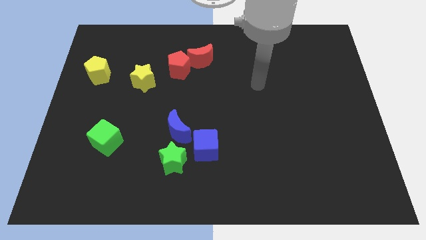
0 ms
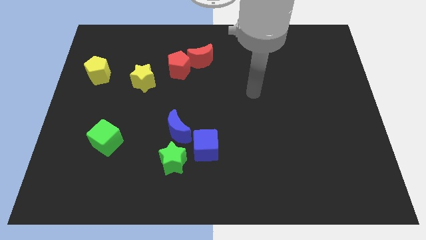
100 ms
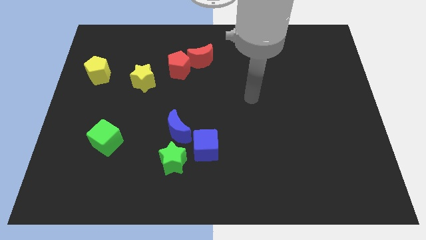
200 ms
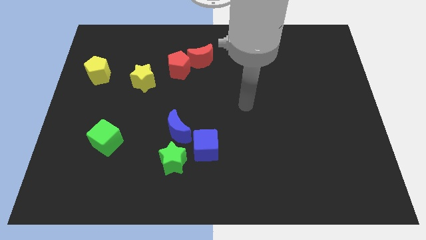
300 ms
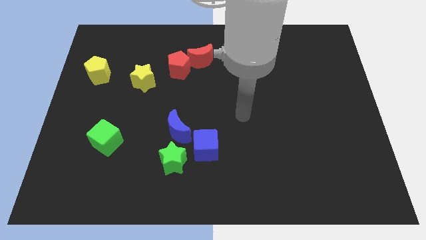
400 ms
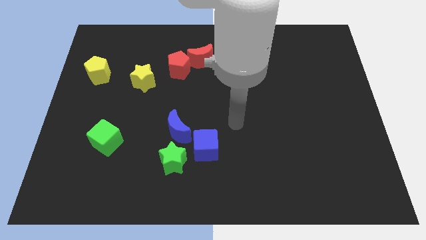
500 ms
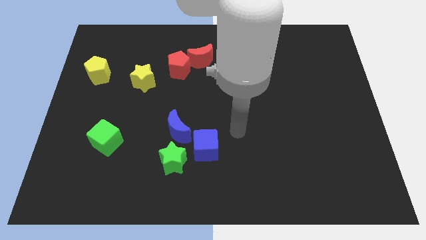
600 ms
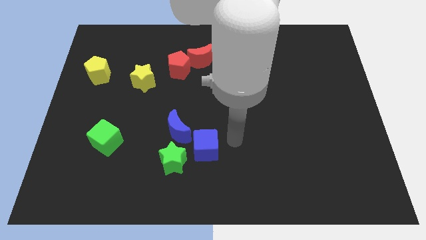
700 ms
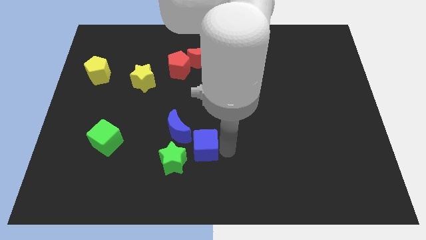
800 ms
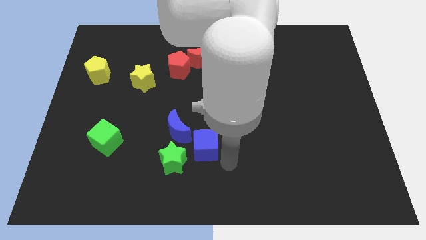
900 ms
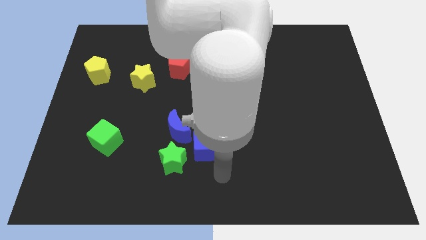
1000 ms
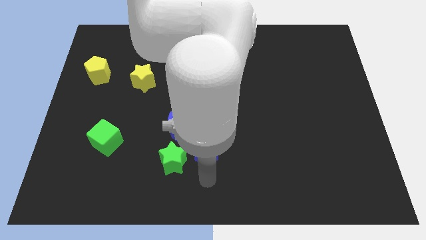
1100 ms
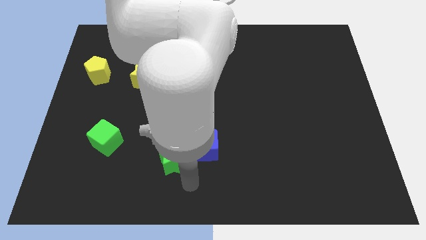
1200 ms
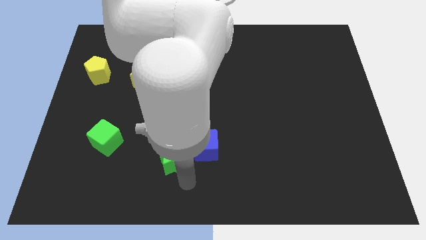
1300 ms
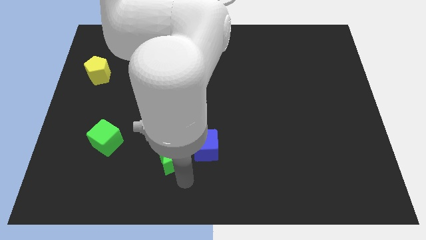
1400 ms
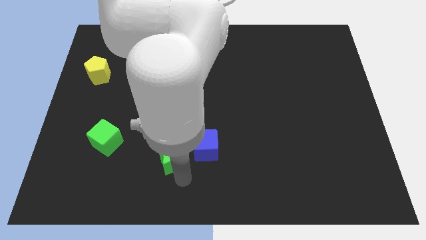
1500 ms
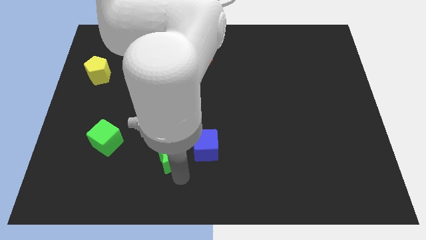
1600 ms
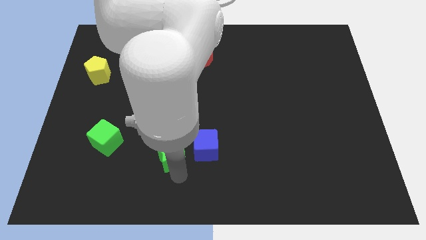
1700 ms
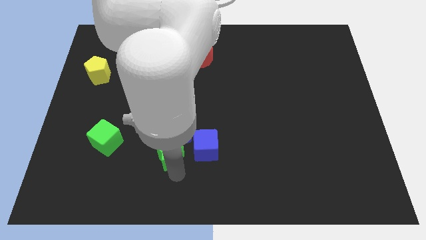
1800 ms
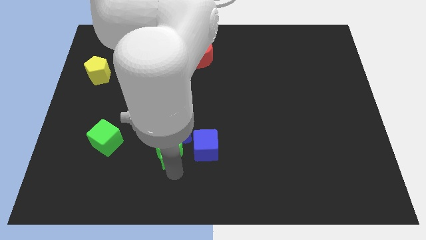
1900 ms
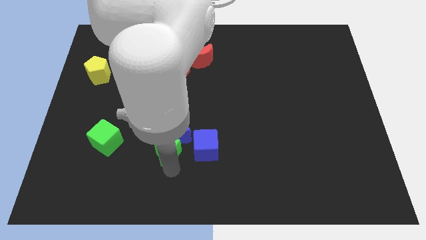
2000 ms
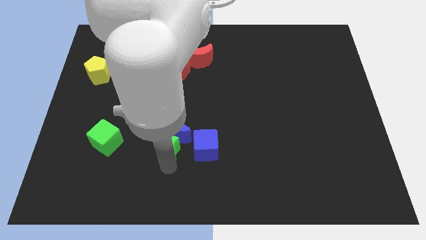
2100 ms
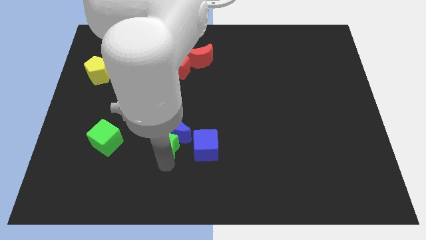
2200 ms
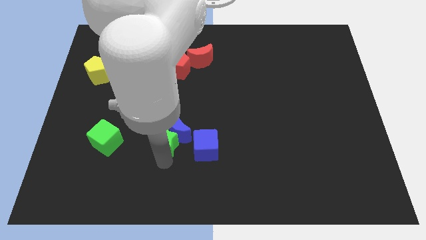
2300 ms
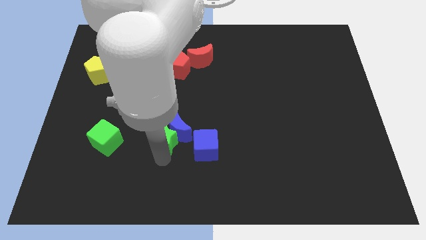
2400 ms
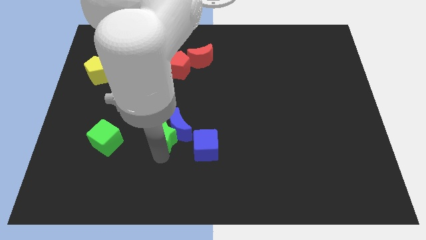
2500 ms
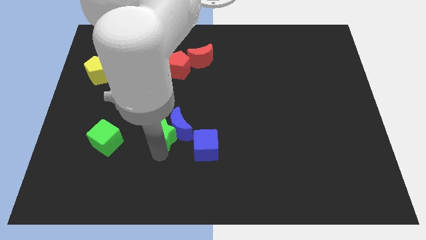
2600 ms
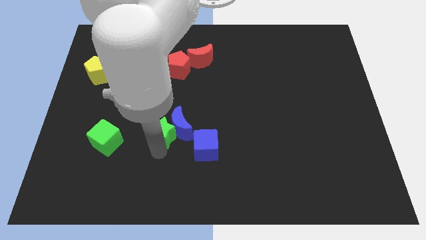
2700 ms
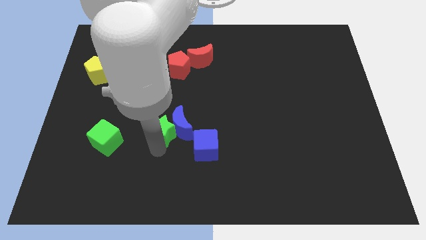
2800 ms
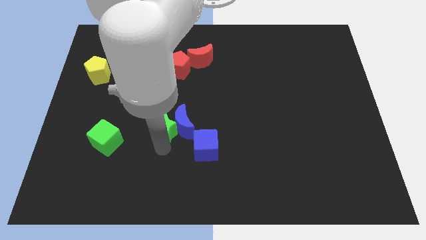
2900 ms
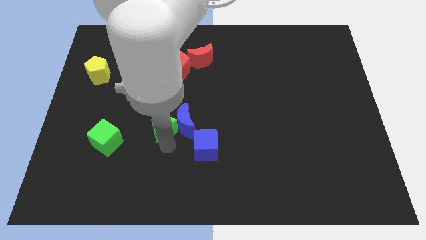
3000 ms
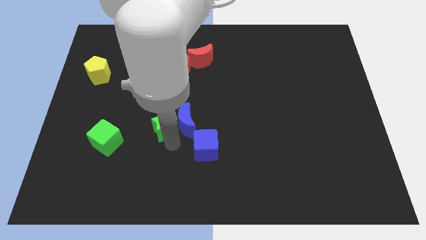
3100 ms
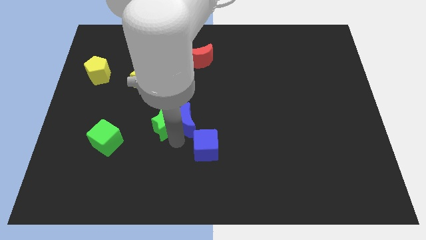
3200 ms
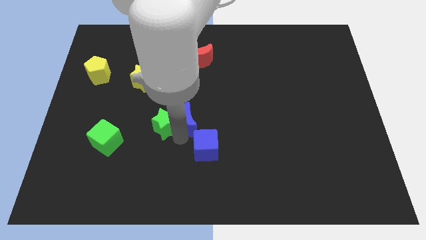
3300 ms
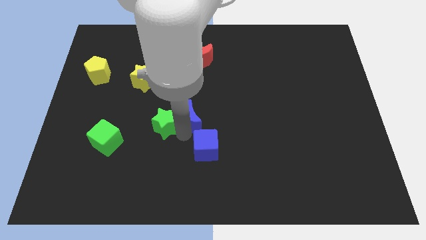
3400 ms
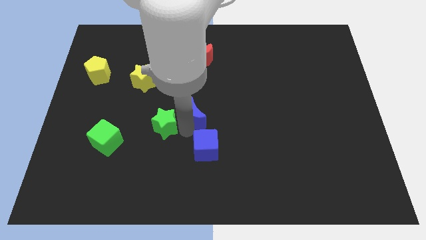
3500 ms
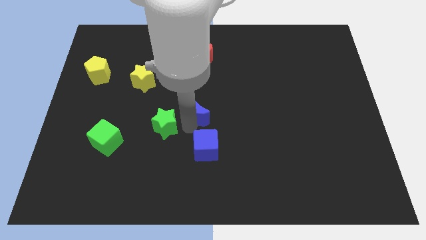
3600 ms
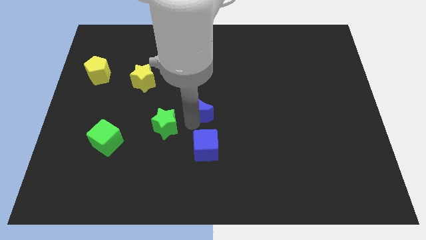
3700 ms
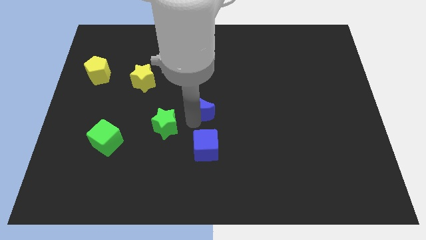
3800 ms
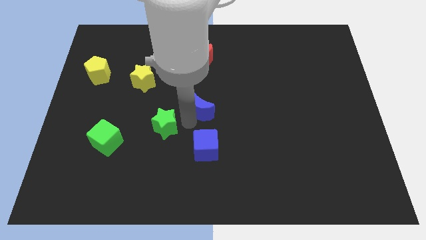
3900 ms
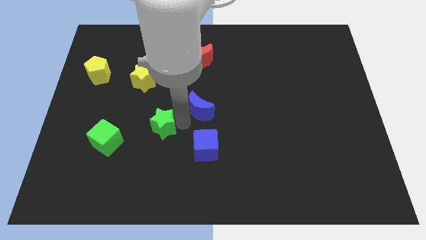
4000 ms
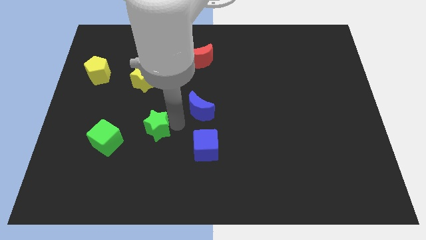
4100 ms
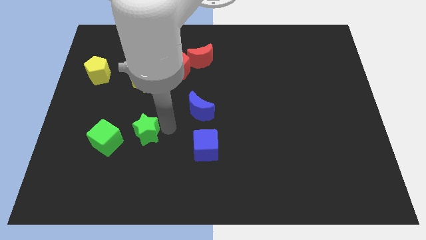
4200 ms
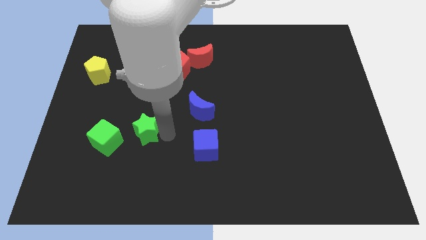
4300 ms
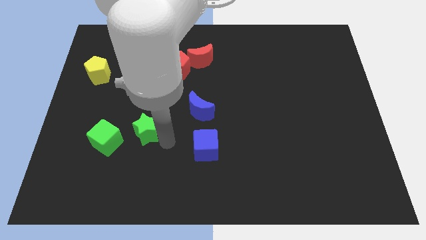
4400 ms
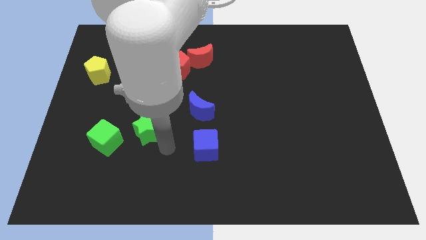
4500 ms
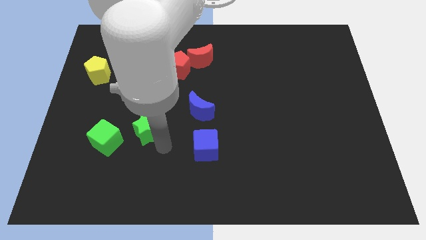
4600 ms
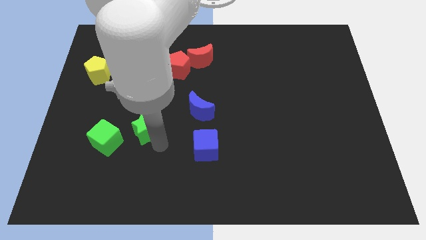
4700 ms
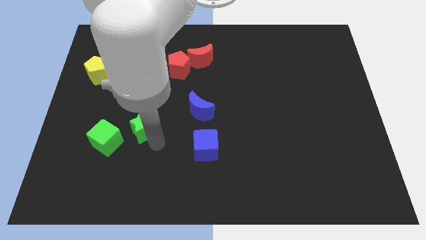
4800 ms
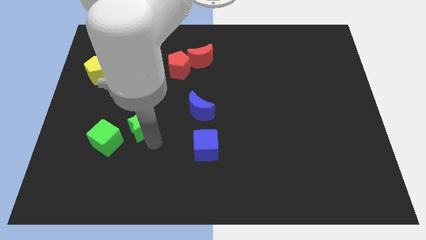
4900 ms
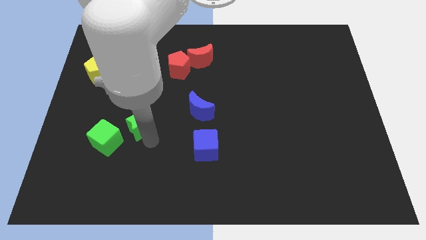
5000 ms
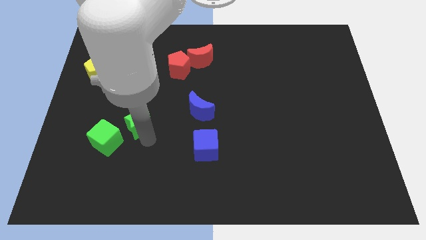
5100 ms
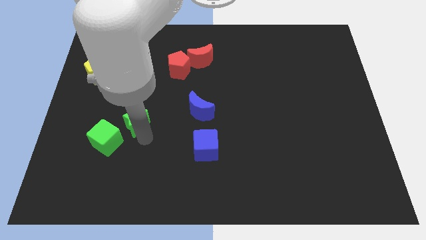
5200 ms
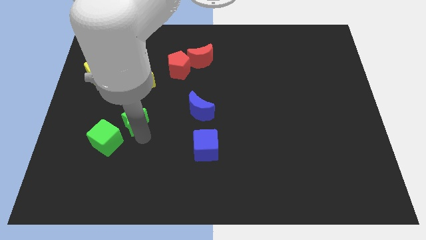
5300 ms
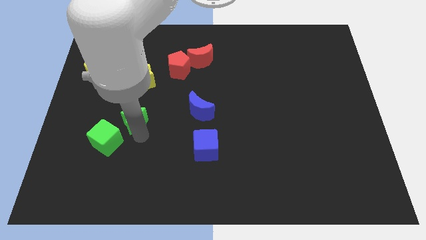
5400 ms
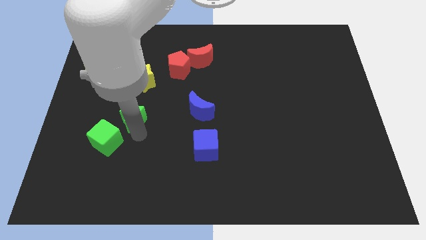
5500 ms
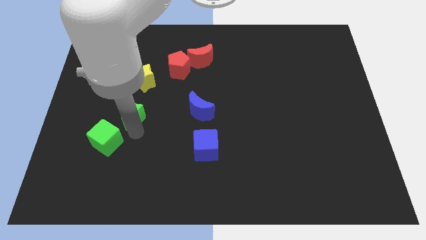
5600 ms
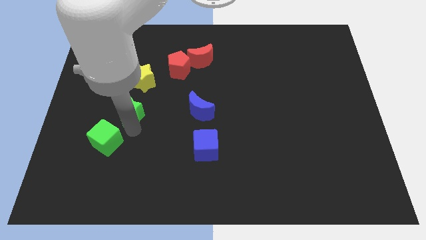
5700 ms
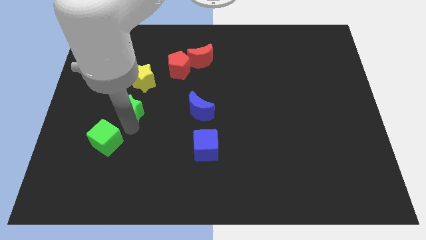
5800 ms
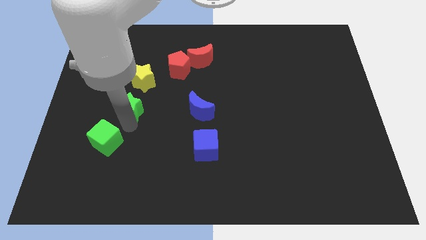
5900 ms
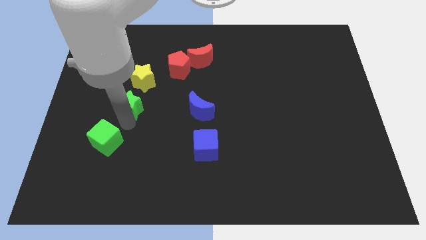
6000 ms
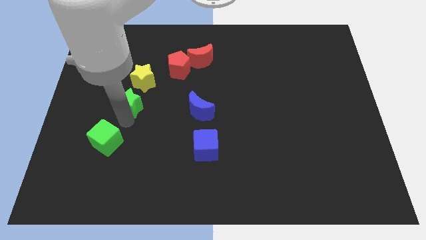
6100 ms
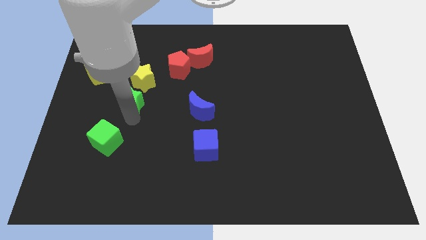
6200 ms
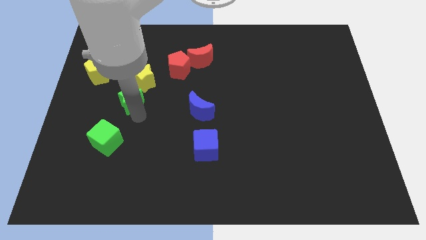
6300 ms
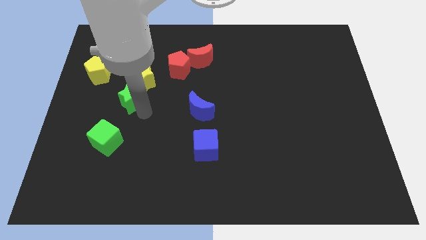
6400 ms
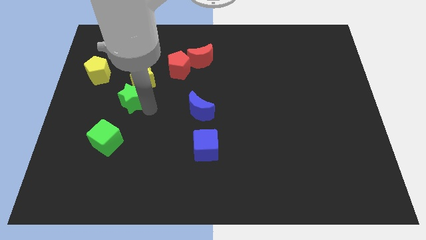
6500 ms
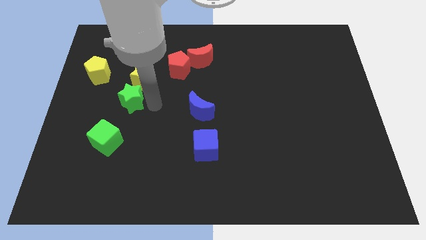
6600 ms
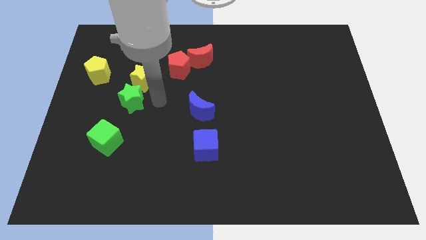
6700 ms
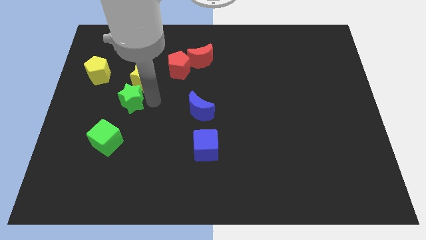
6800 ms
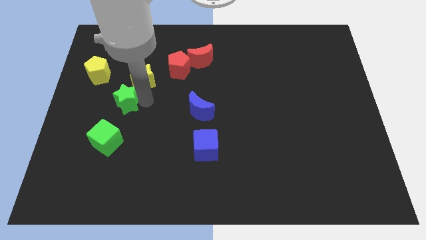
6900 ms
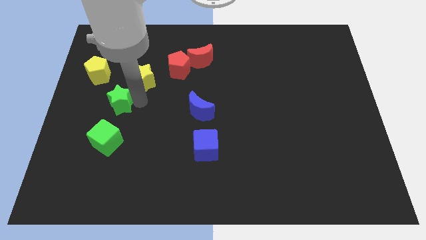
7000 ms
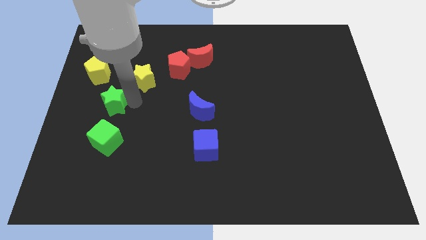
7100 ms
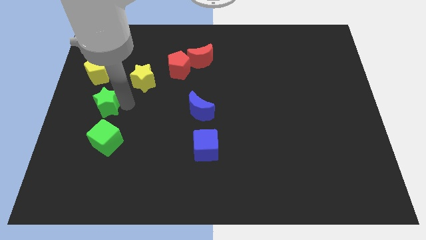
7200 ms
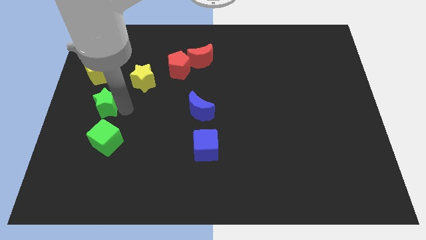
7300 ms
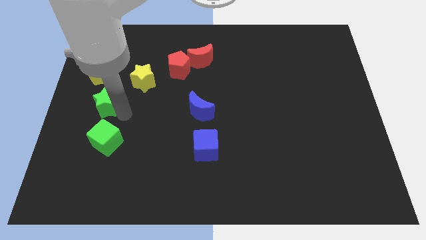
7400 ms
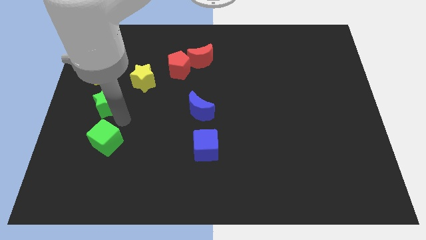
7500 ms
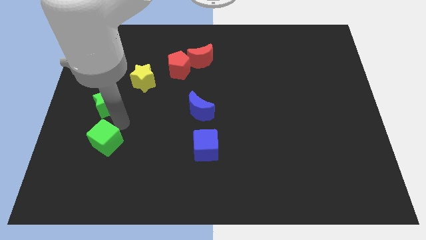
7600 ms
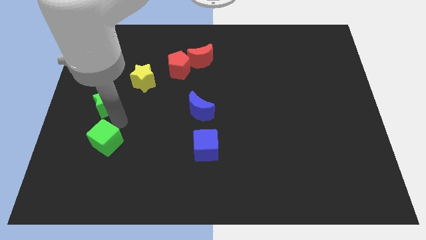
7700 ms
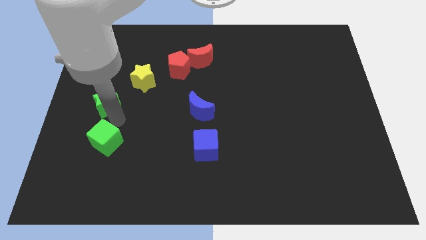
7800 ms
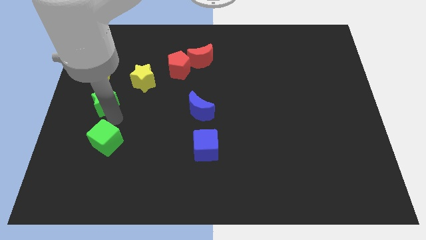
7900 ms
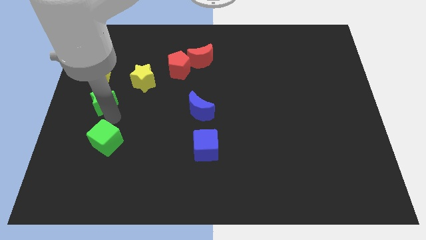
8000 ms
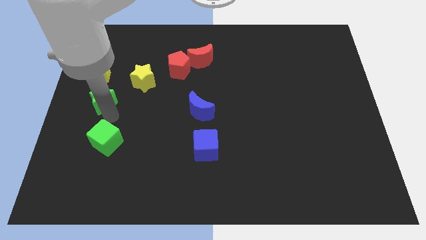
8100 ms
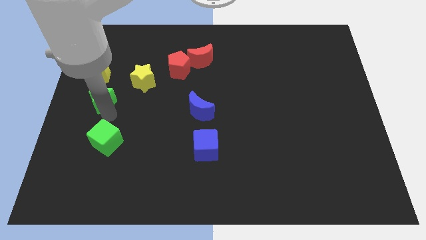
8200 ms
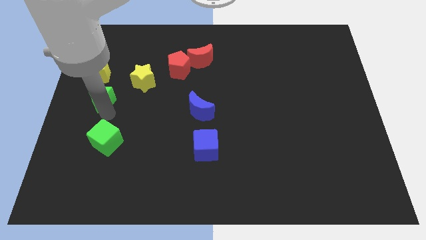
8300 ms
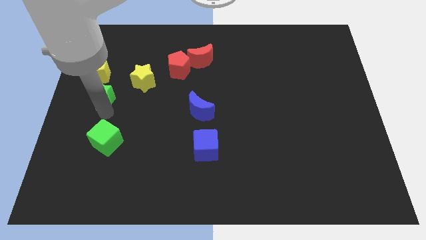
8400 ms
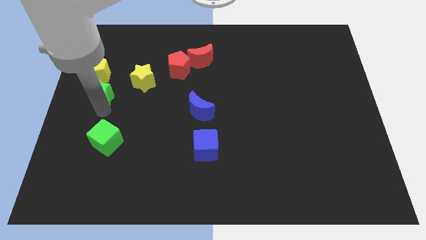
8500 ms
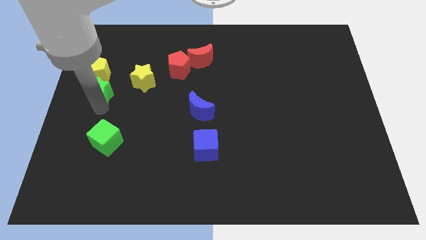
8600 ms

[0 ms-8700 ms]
put the green star to the left side of the yellow star
